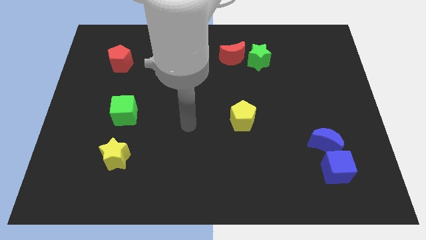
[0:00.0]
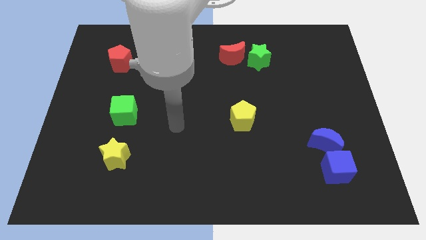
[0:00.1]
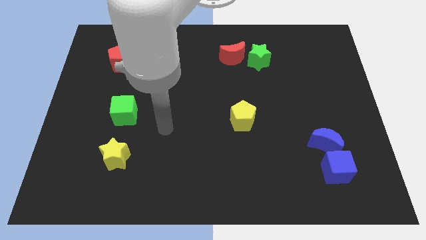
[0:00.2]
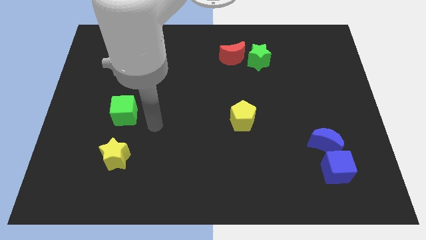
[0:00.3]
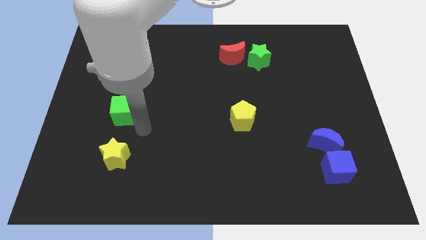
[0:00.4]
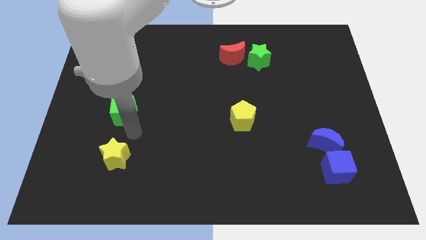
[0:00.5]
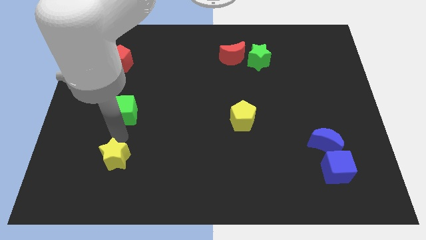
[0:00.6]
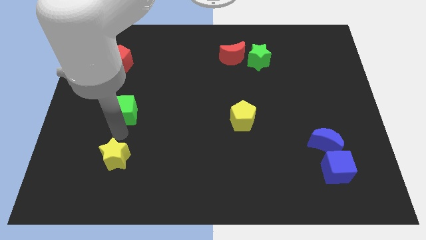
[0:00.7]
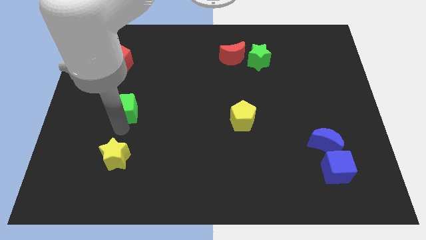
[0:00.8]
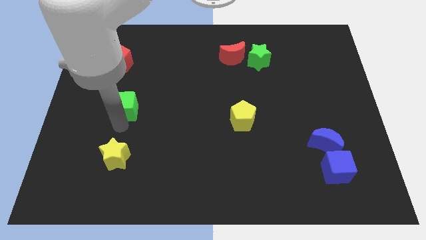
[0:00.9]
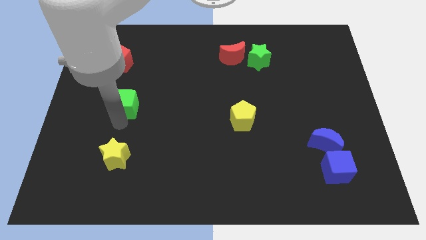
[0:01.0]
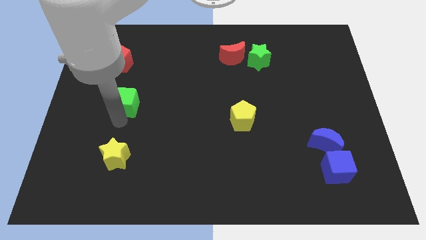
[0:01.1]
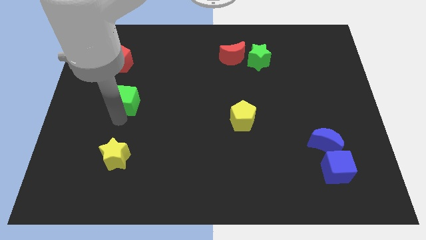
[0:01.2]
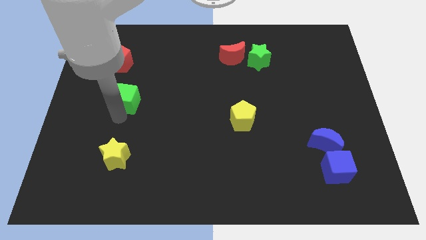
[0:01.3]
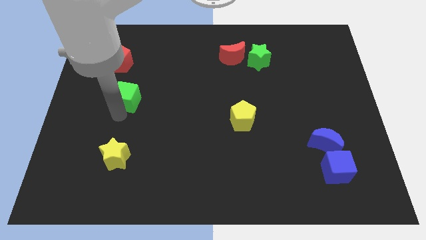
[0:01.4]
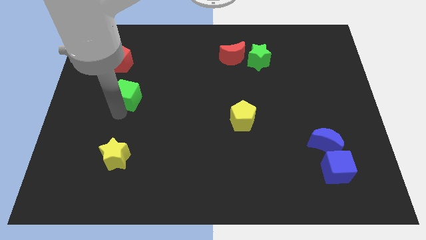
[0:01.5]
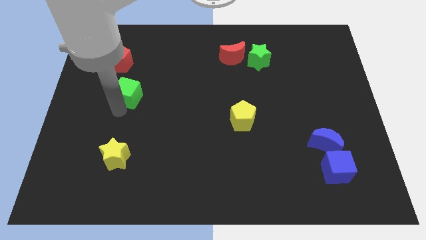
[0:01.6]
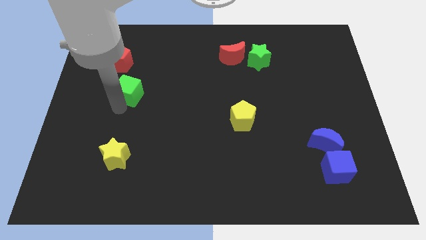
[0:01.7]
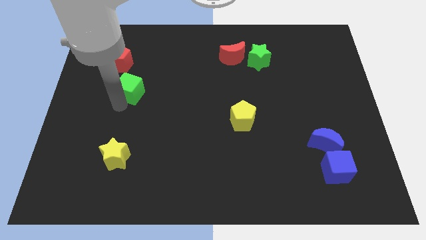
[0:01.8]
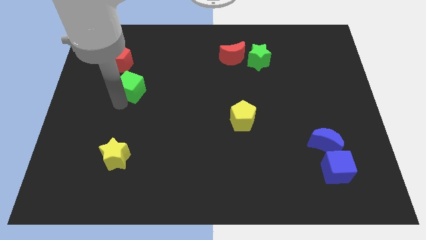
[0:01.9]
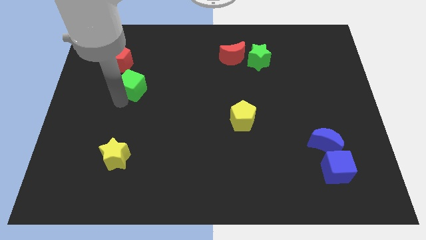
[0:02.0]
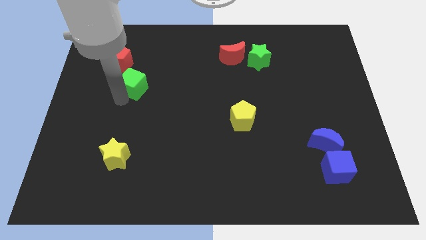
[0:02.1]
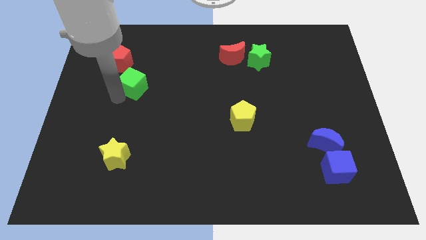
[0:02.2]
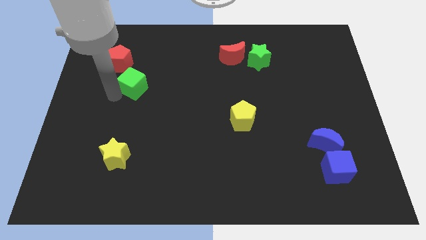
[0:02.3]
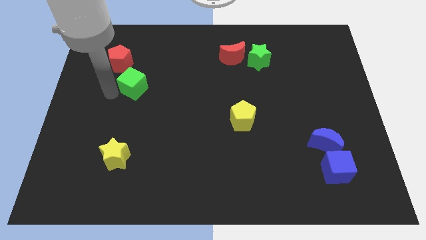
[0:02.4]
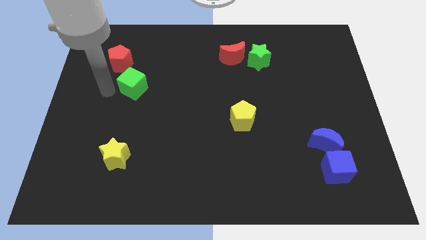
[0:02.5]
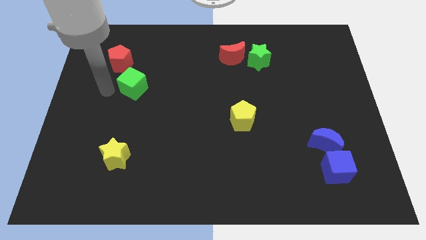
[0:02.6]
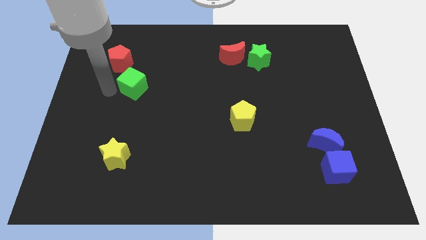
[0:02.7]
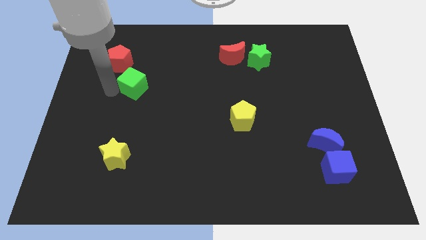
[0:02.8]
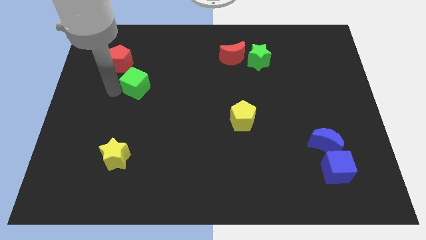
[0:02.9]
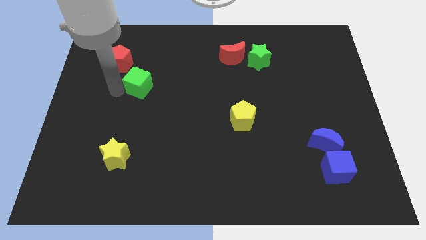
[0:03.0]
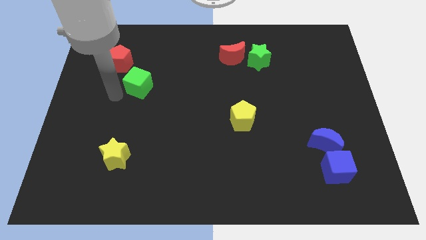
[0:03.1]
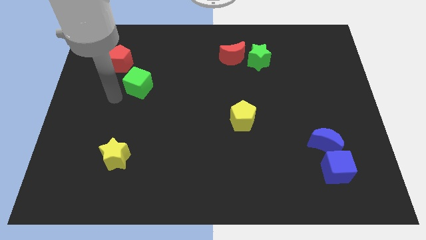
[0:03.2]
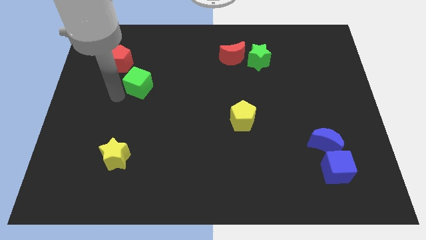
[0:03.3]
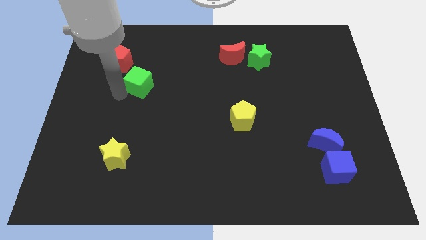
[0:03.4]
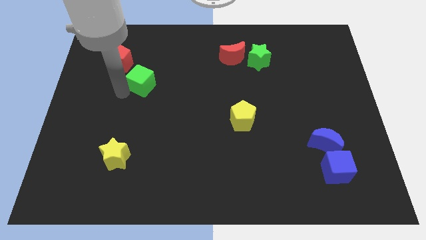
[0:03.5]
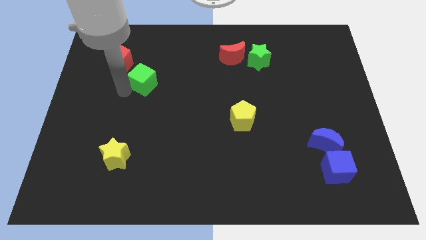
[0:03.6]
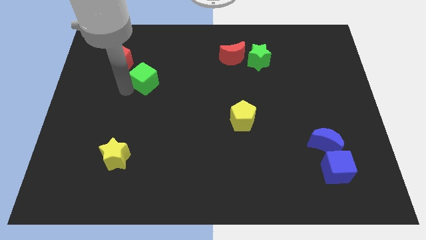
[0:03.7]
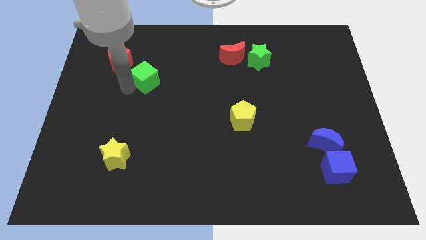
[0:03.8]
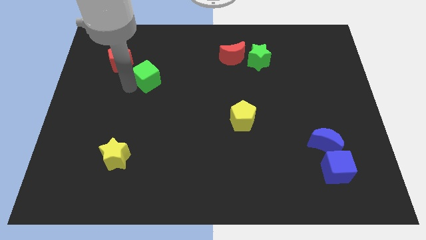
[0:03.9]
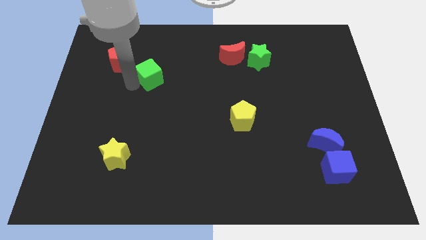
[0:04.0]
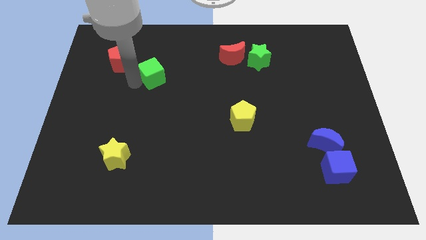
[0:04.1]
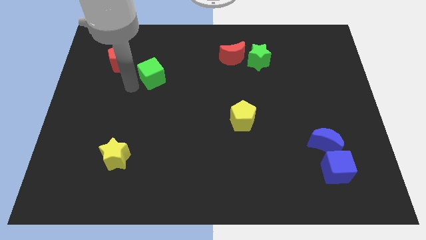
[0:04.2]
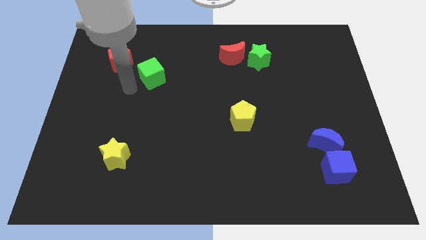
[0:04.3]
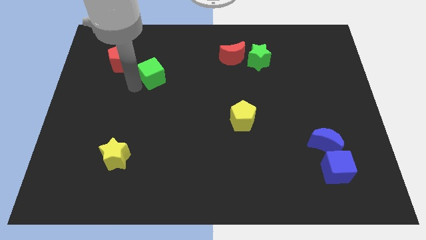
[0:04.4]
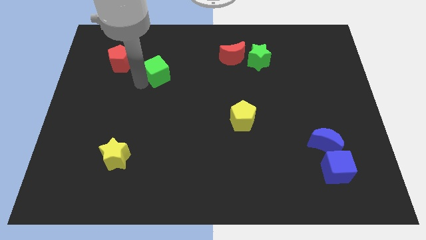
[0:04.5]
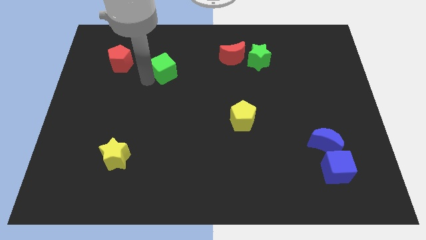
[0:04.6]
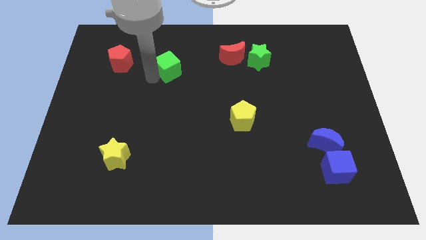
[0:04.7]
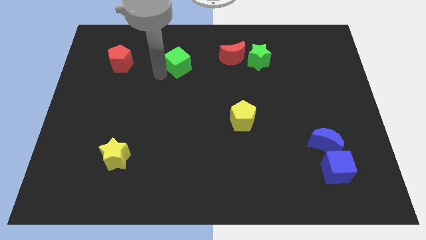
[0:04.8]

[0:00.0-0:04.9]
push the green cube to the left side of the red moon

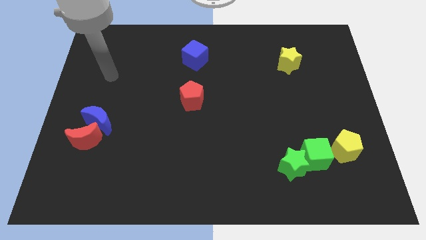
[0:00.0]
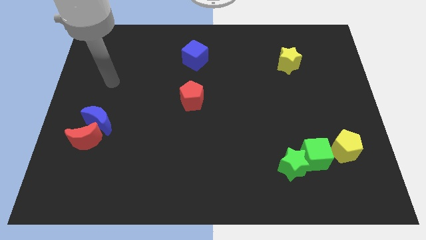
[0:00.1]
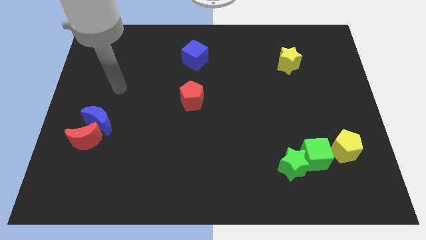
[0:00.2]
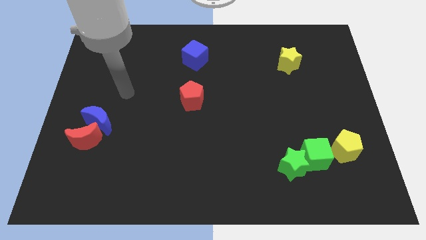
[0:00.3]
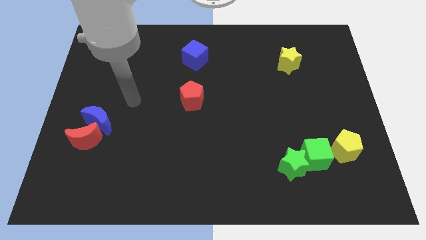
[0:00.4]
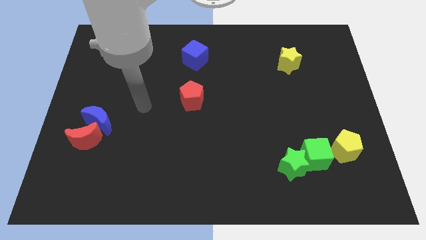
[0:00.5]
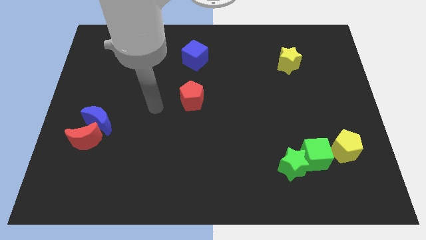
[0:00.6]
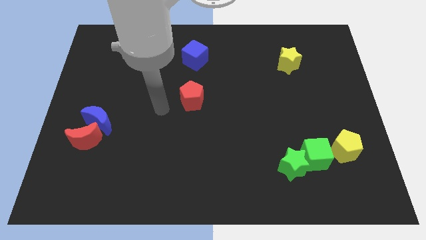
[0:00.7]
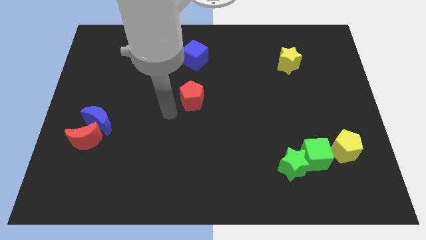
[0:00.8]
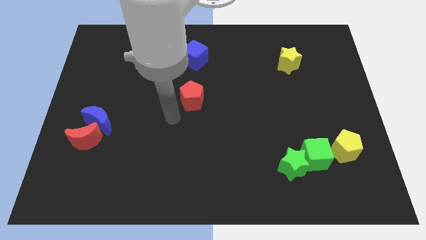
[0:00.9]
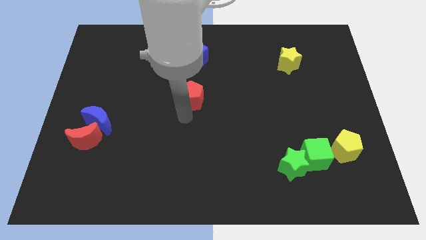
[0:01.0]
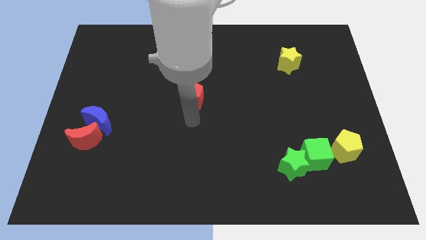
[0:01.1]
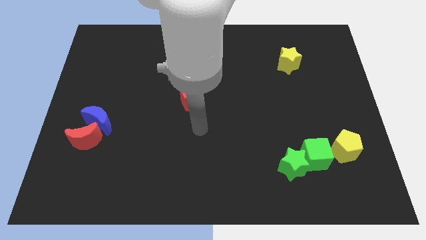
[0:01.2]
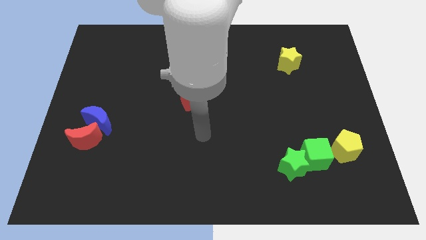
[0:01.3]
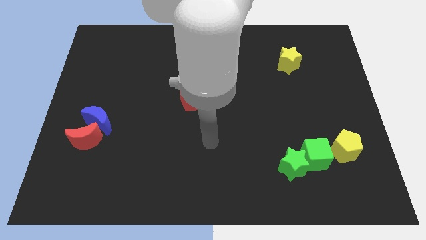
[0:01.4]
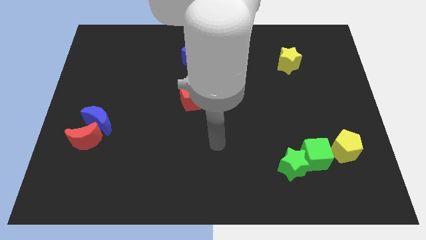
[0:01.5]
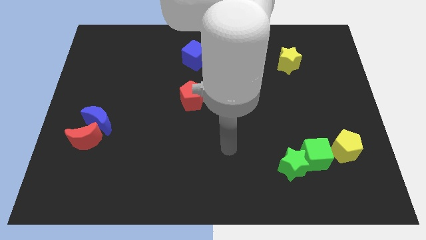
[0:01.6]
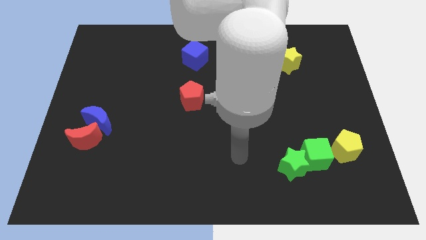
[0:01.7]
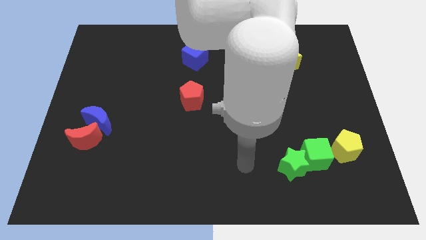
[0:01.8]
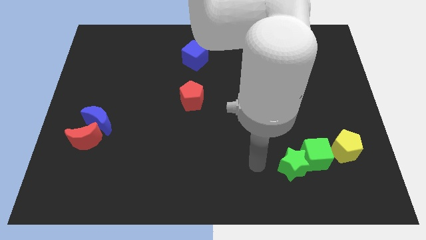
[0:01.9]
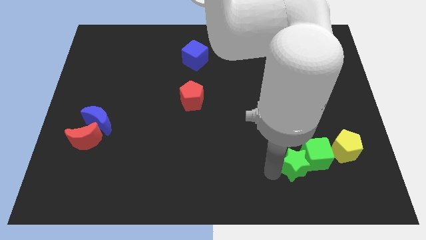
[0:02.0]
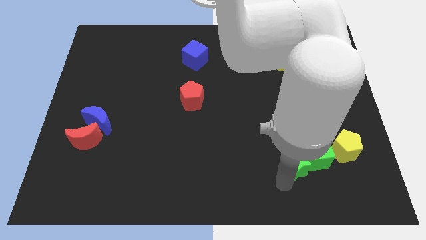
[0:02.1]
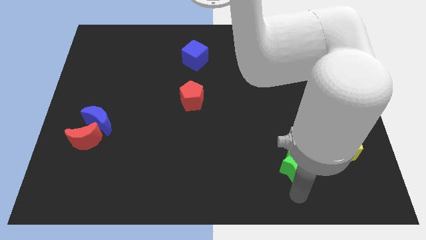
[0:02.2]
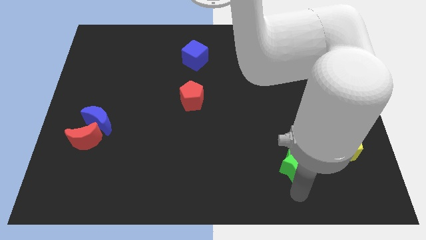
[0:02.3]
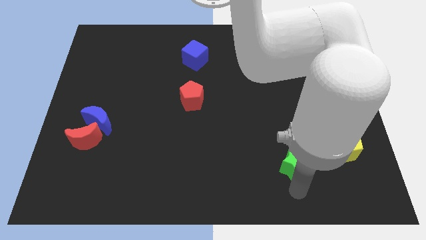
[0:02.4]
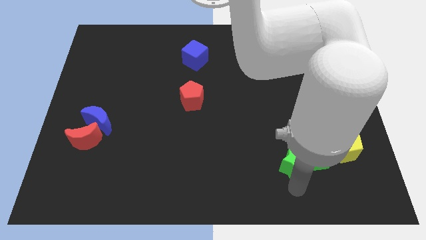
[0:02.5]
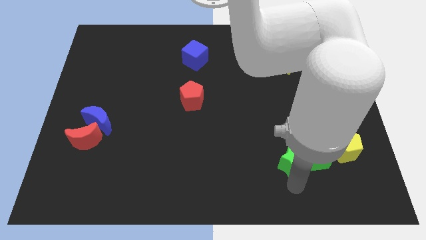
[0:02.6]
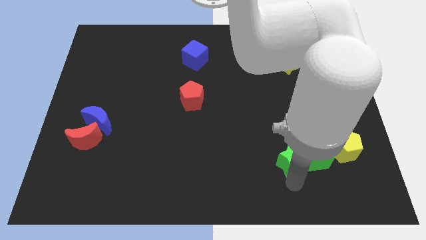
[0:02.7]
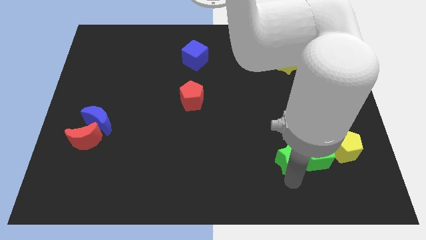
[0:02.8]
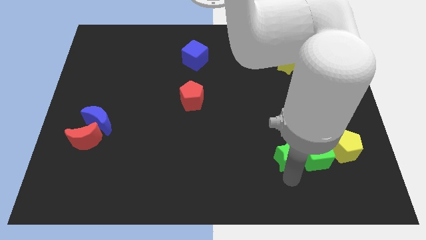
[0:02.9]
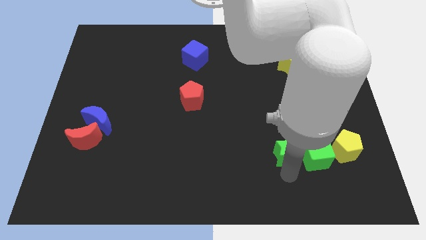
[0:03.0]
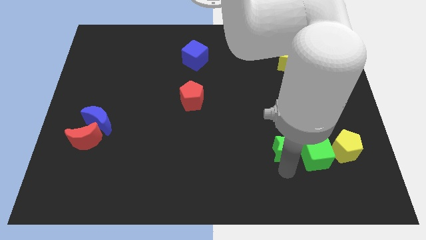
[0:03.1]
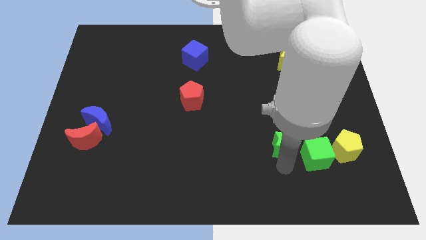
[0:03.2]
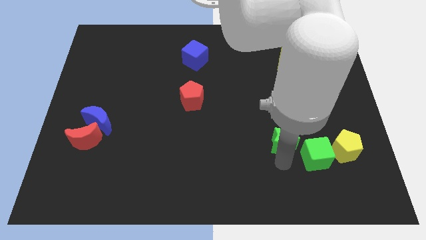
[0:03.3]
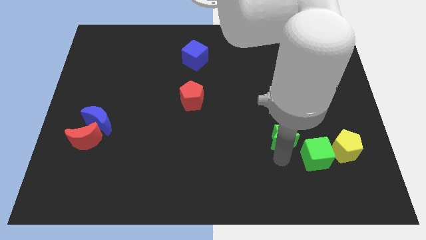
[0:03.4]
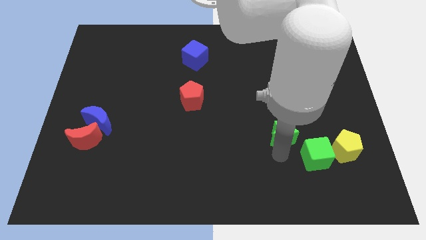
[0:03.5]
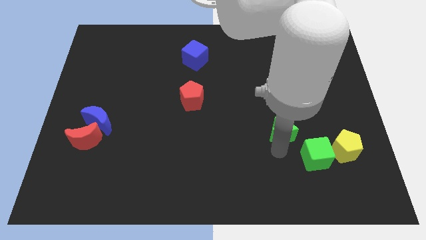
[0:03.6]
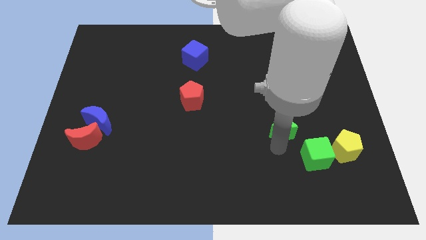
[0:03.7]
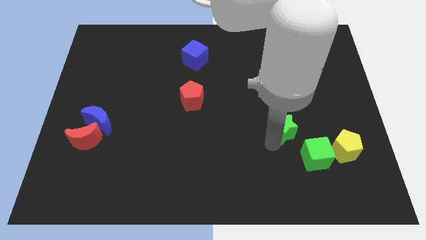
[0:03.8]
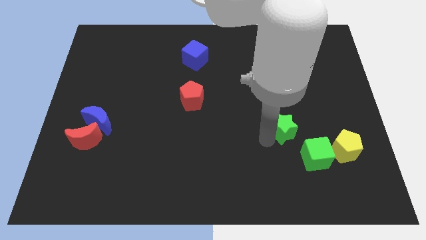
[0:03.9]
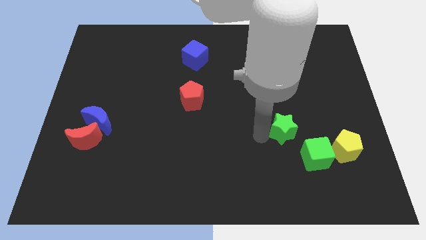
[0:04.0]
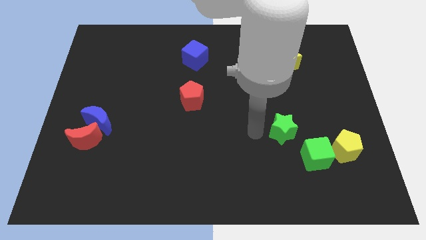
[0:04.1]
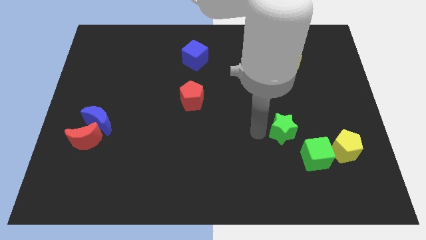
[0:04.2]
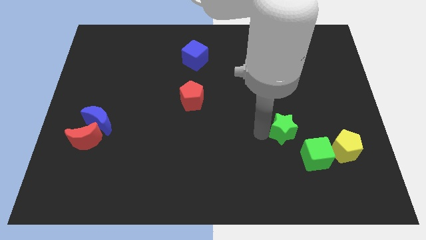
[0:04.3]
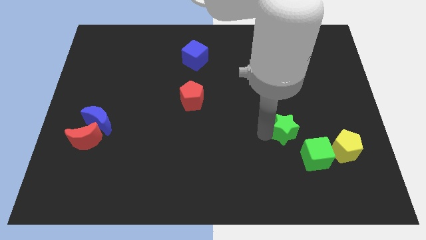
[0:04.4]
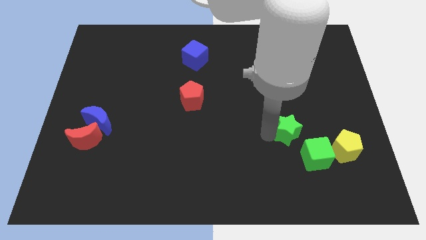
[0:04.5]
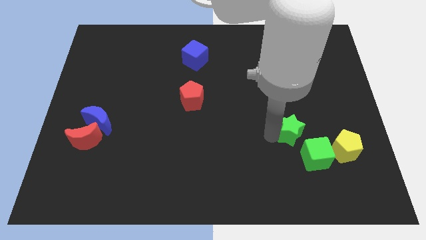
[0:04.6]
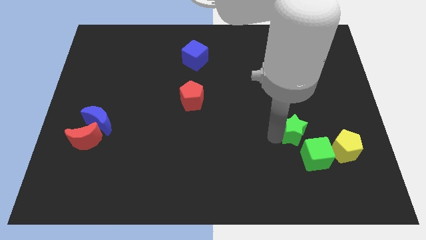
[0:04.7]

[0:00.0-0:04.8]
move the green star diagonally up and to the left of the yellow pentagon
